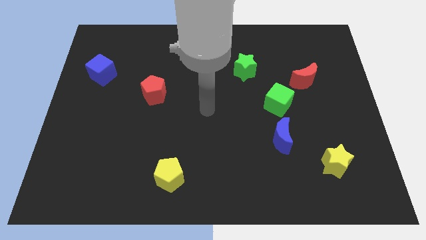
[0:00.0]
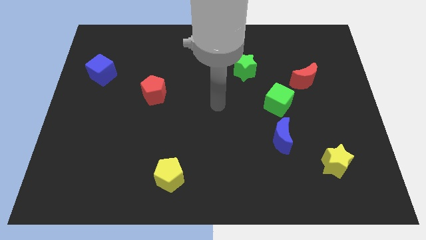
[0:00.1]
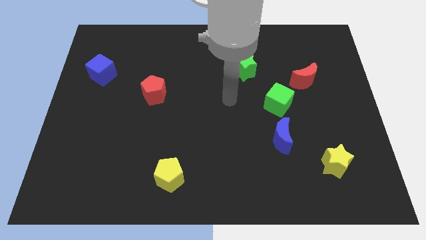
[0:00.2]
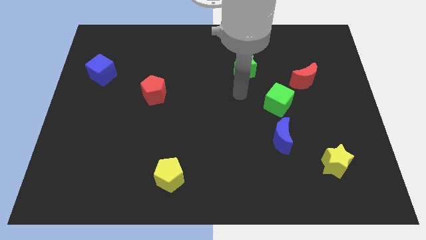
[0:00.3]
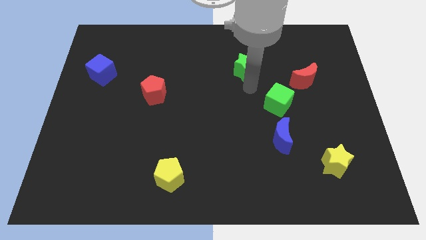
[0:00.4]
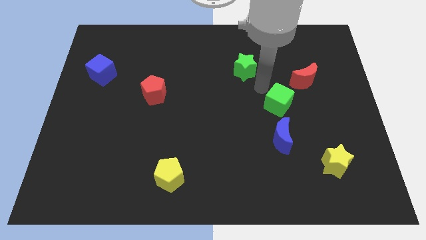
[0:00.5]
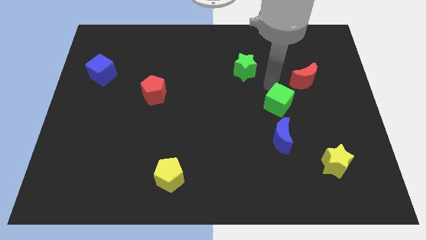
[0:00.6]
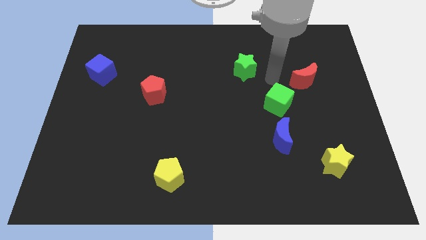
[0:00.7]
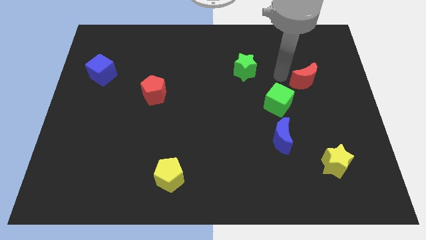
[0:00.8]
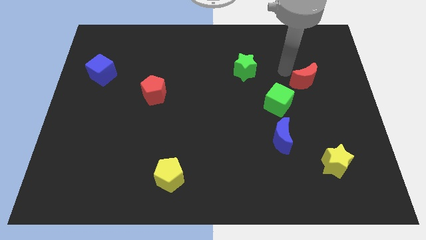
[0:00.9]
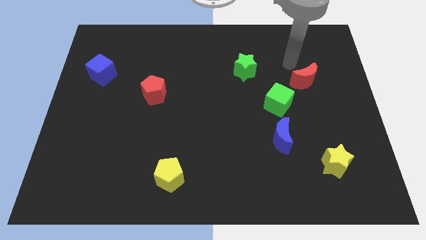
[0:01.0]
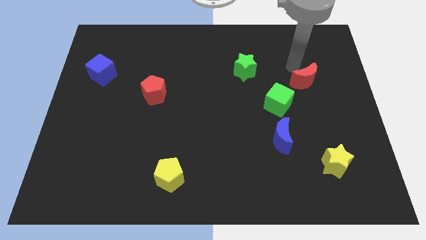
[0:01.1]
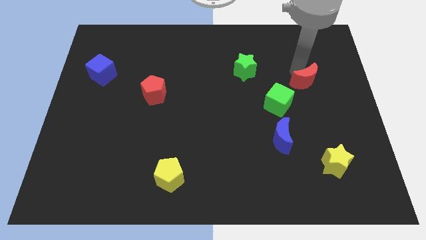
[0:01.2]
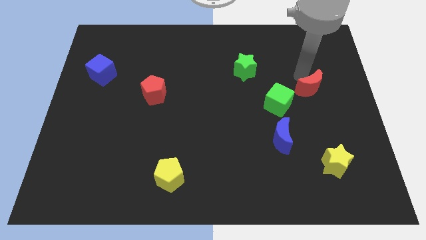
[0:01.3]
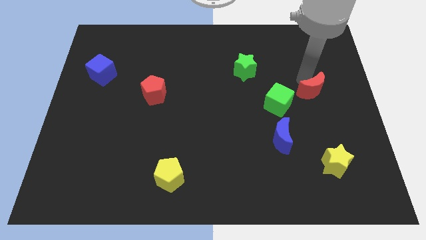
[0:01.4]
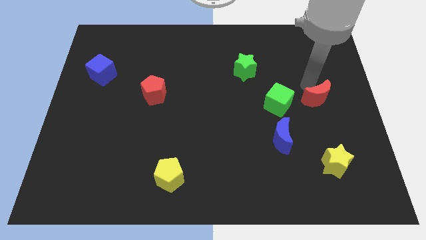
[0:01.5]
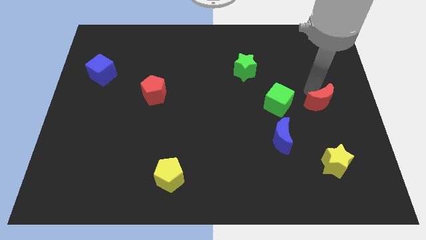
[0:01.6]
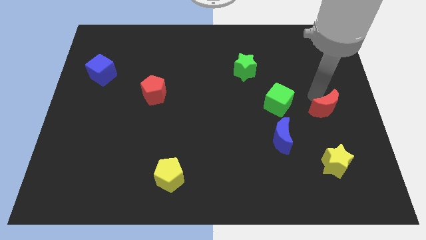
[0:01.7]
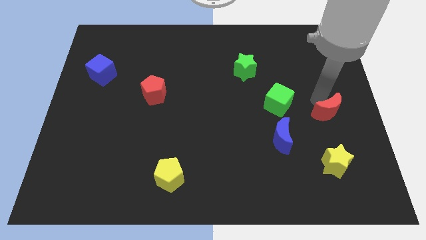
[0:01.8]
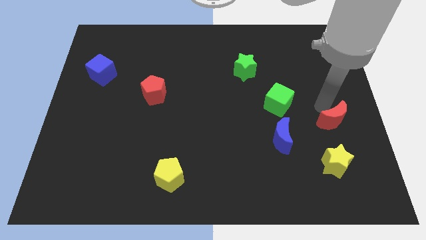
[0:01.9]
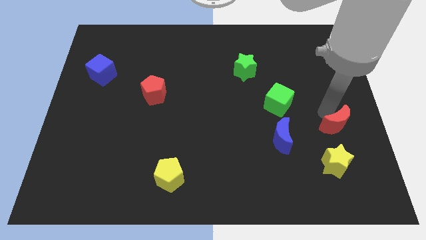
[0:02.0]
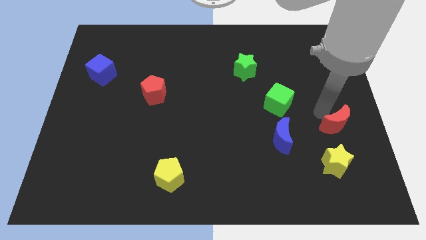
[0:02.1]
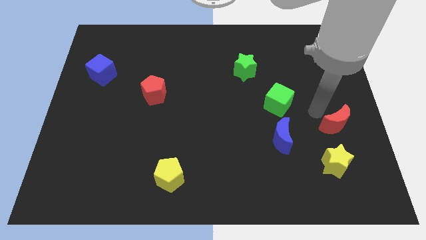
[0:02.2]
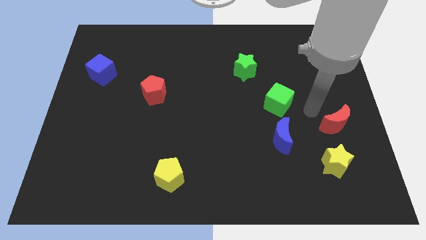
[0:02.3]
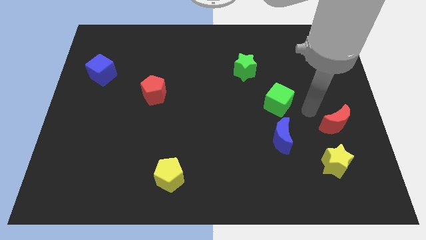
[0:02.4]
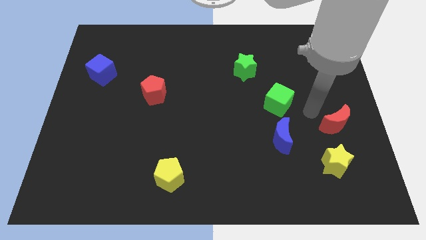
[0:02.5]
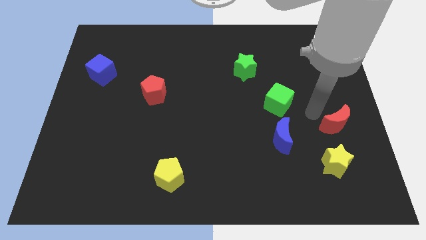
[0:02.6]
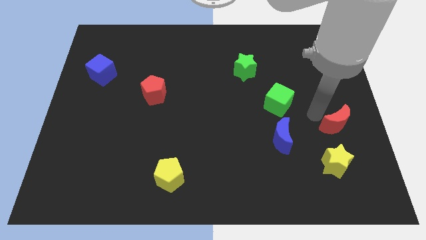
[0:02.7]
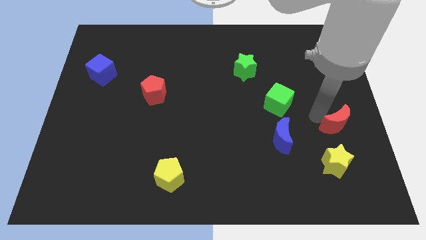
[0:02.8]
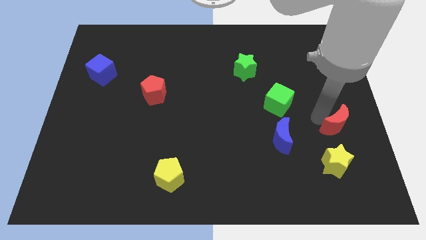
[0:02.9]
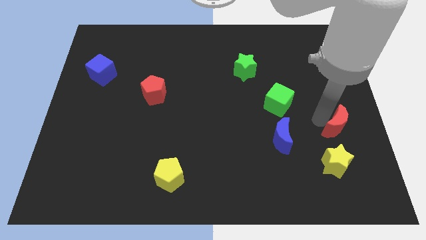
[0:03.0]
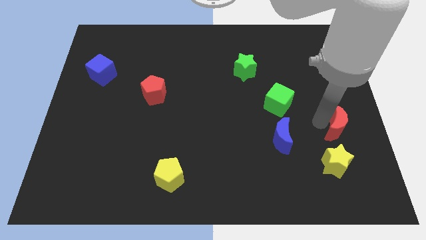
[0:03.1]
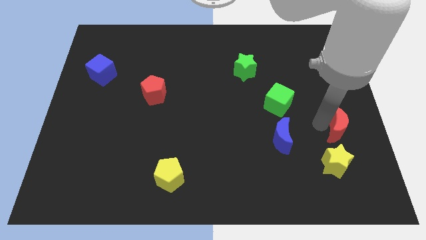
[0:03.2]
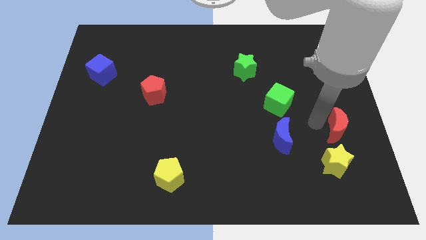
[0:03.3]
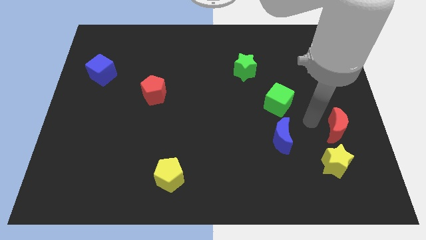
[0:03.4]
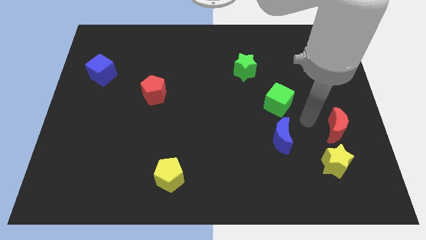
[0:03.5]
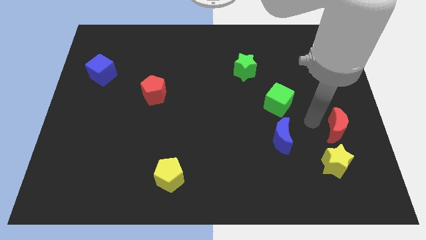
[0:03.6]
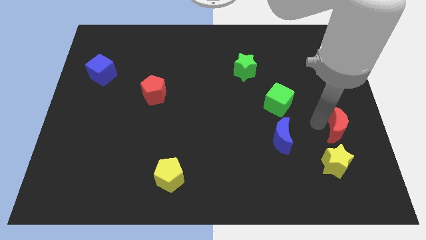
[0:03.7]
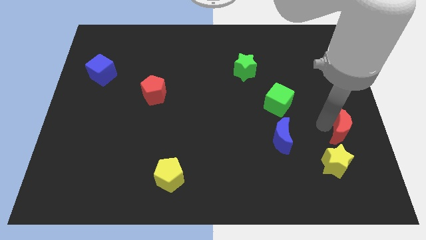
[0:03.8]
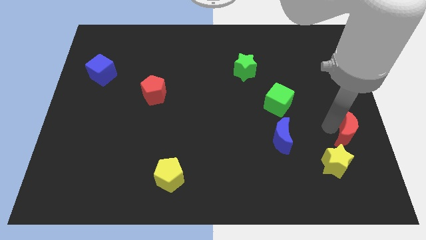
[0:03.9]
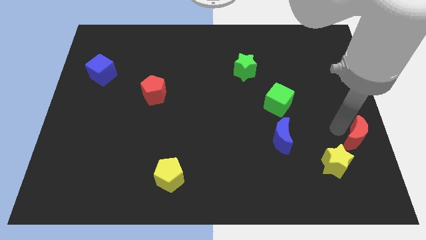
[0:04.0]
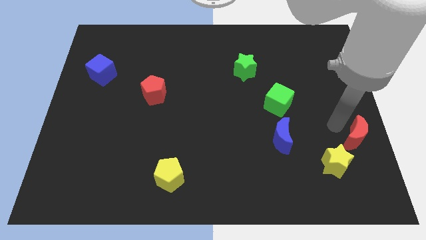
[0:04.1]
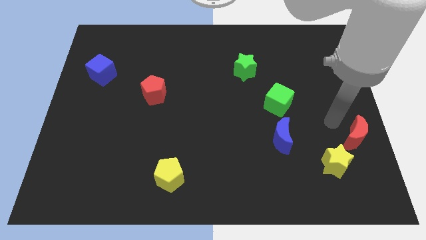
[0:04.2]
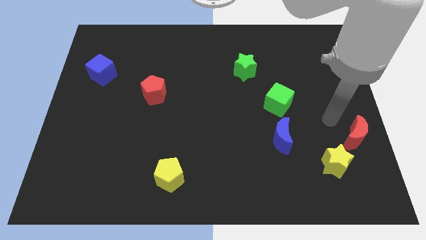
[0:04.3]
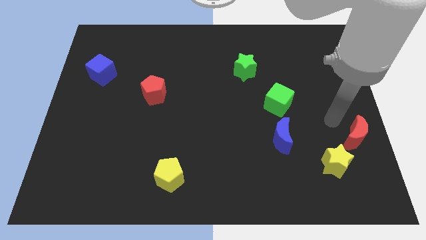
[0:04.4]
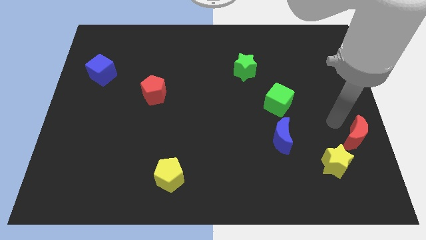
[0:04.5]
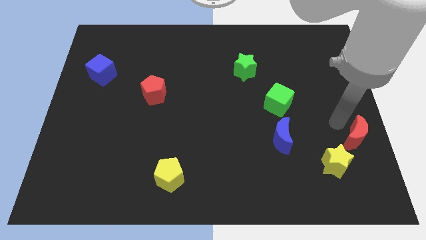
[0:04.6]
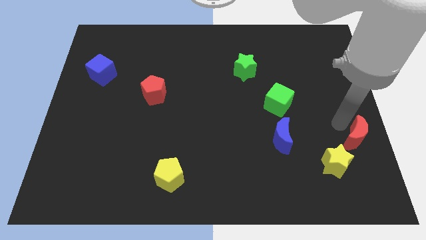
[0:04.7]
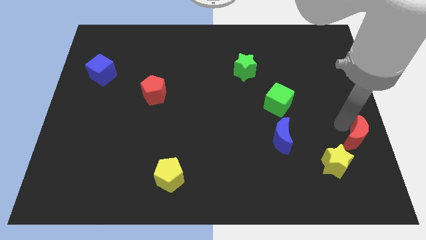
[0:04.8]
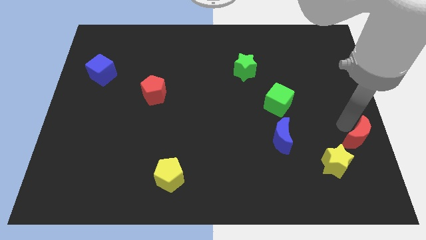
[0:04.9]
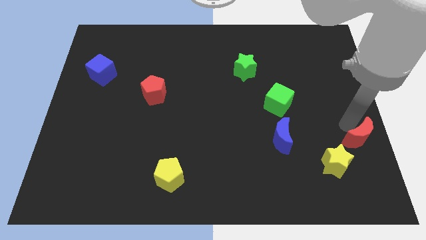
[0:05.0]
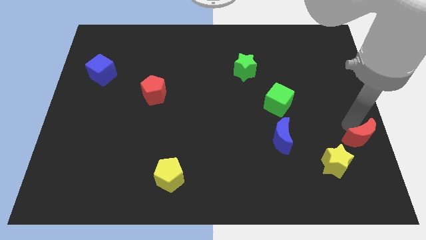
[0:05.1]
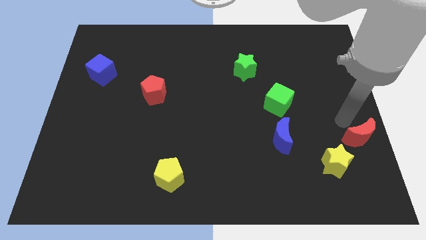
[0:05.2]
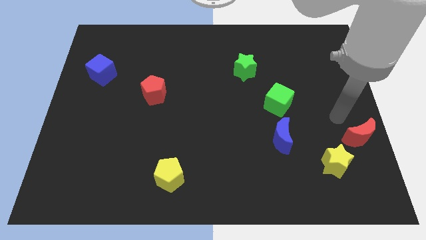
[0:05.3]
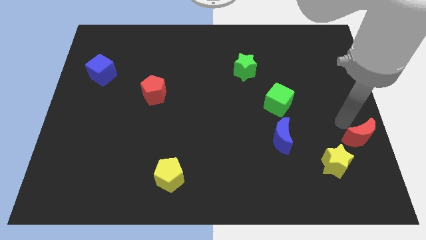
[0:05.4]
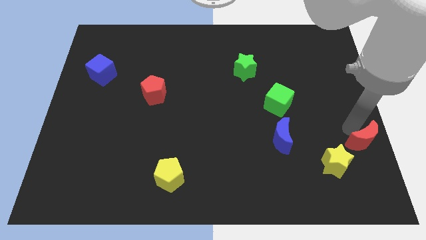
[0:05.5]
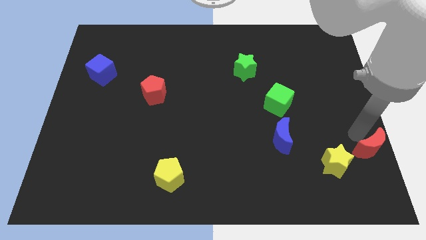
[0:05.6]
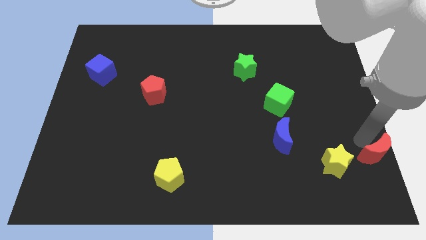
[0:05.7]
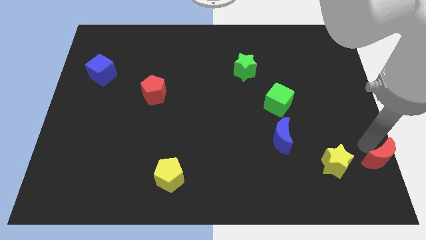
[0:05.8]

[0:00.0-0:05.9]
slide the red moon to the bottom right corner

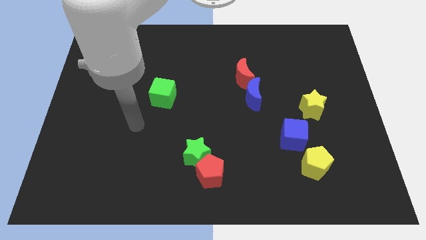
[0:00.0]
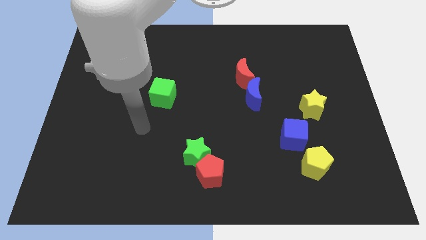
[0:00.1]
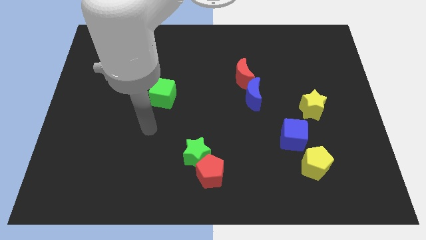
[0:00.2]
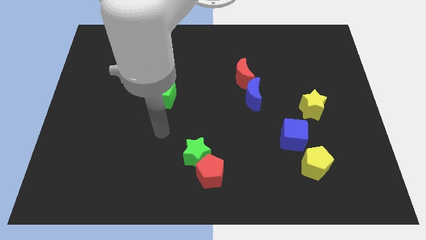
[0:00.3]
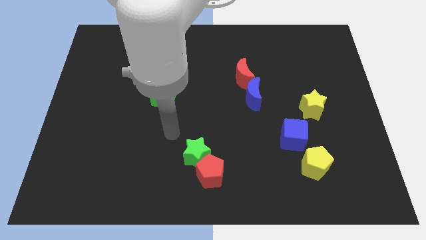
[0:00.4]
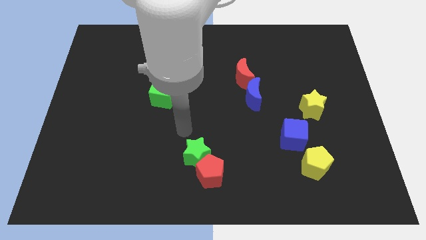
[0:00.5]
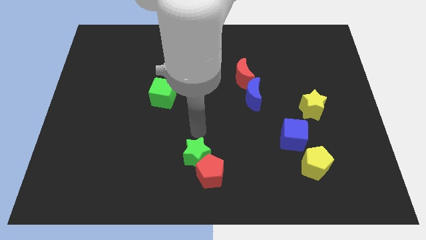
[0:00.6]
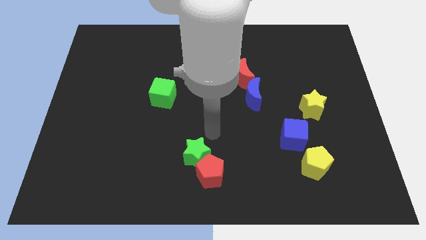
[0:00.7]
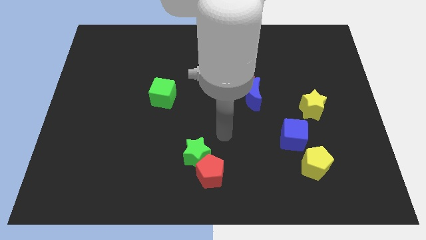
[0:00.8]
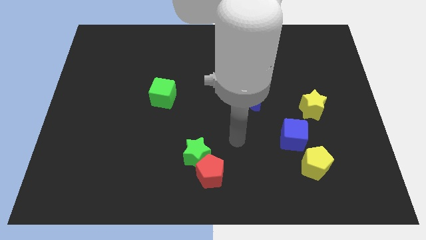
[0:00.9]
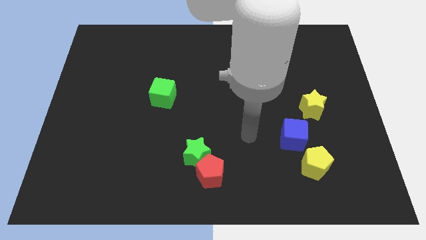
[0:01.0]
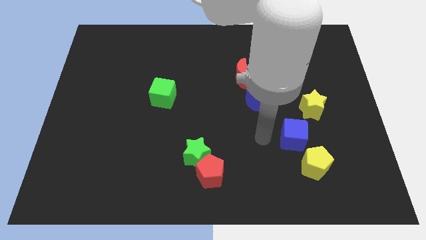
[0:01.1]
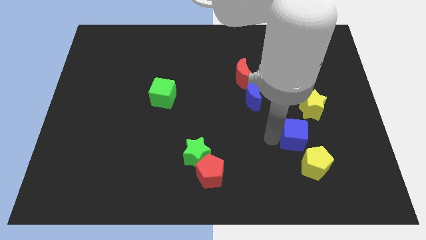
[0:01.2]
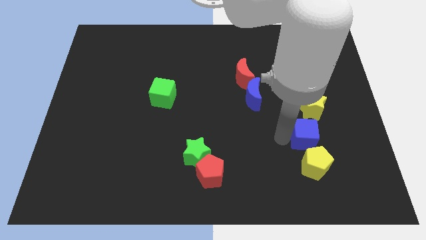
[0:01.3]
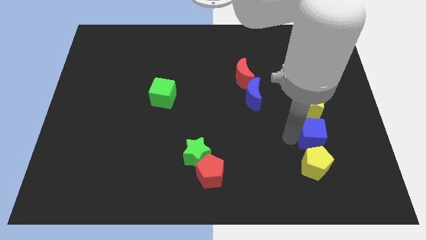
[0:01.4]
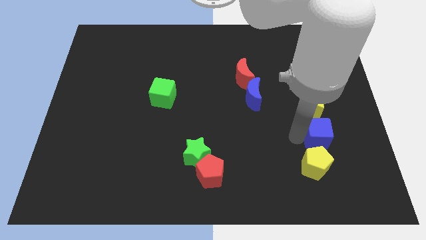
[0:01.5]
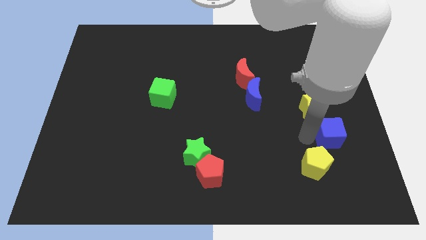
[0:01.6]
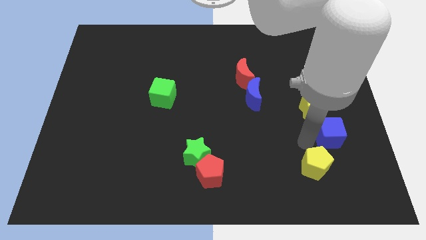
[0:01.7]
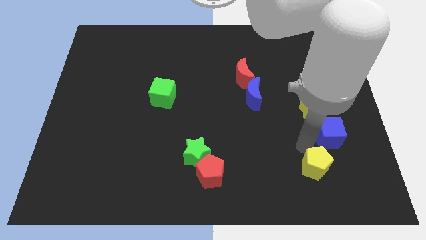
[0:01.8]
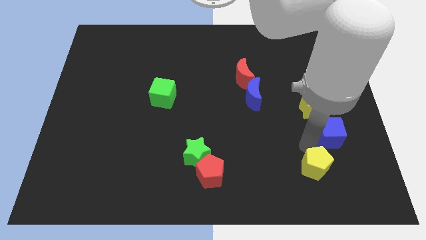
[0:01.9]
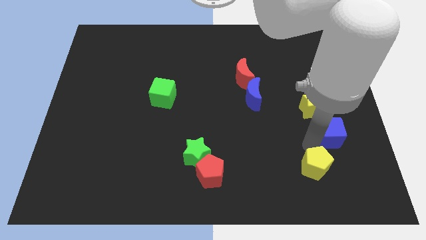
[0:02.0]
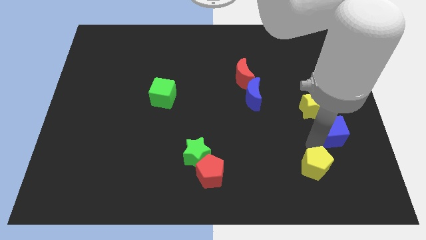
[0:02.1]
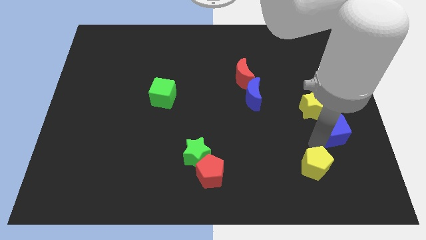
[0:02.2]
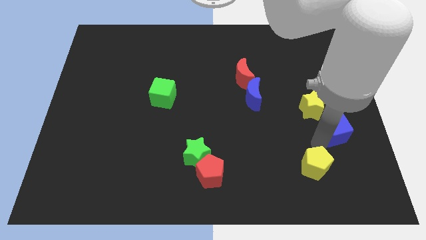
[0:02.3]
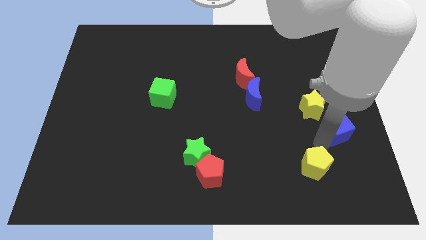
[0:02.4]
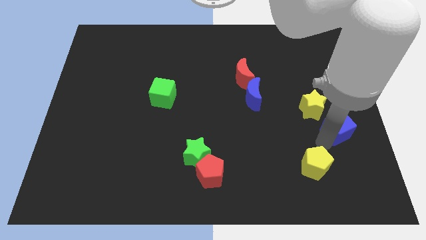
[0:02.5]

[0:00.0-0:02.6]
move the blue cube to the right side
